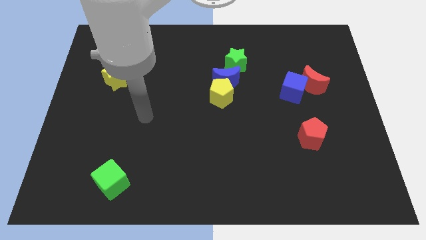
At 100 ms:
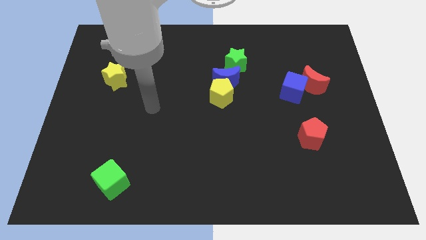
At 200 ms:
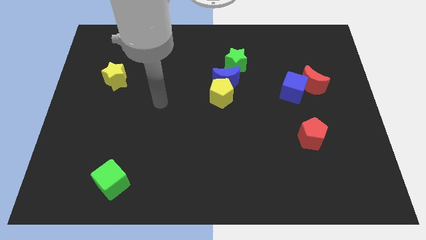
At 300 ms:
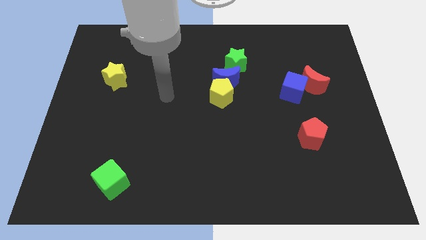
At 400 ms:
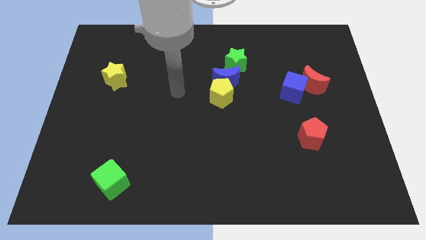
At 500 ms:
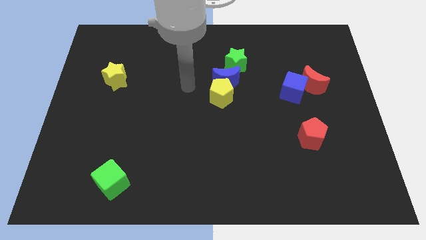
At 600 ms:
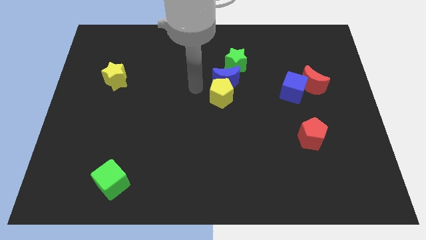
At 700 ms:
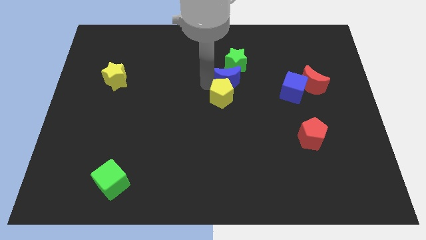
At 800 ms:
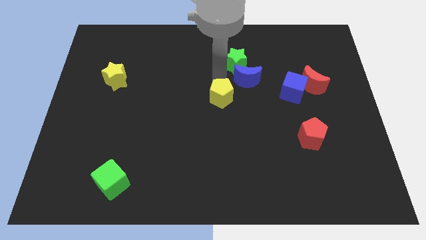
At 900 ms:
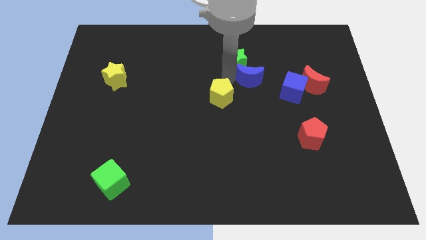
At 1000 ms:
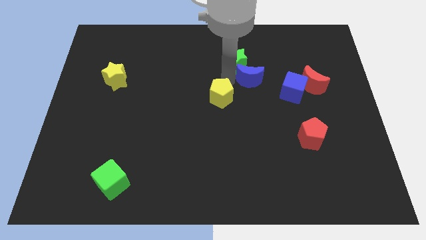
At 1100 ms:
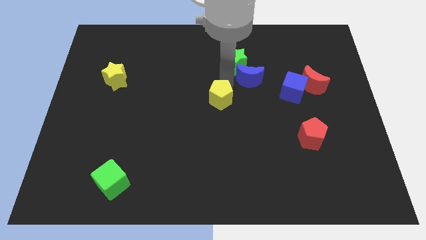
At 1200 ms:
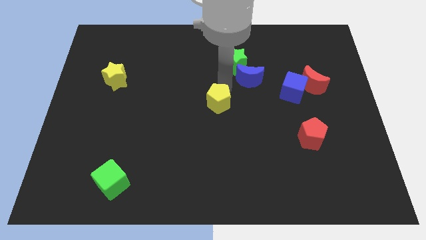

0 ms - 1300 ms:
move the yellow pentagon away from the blue moon

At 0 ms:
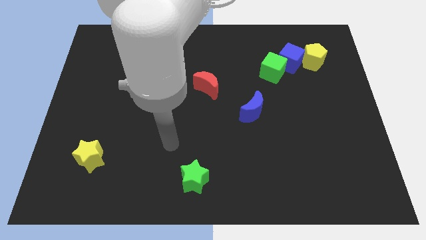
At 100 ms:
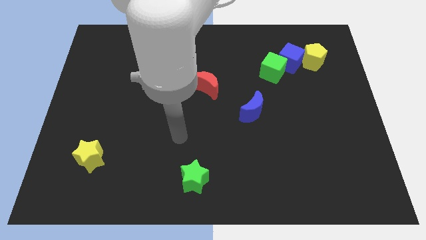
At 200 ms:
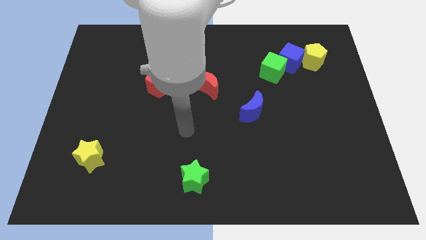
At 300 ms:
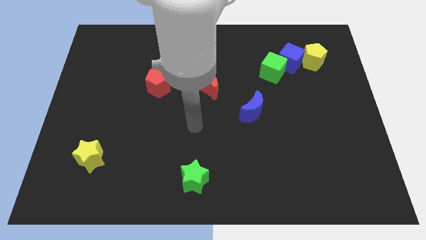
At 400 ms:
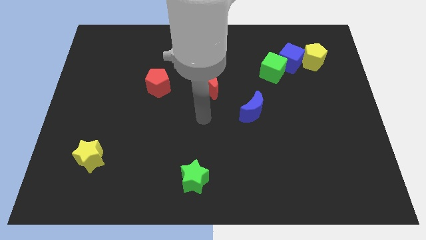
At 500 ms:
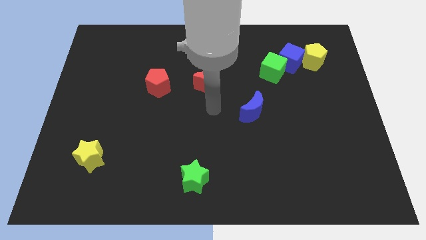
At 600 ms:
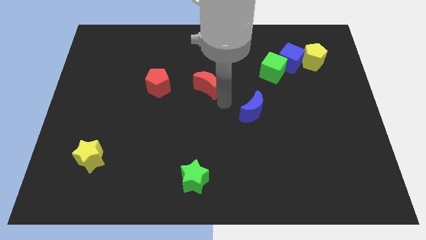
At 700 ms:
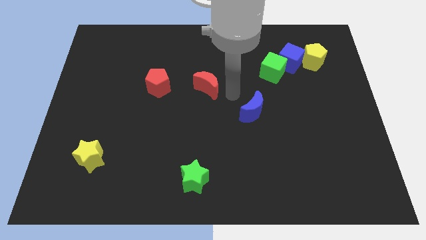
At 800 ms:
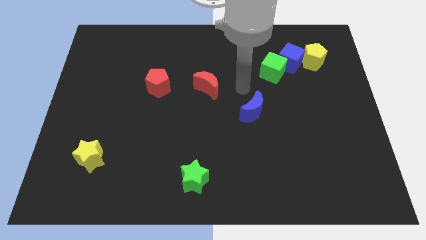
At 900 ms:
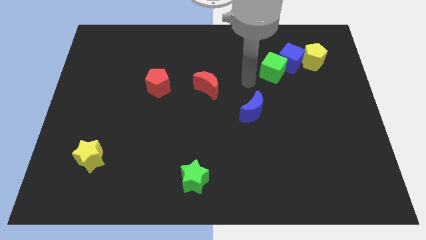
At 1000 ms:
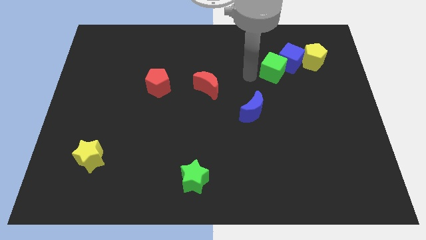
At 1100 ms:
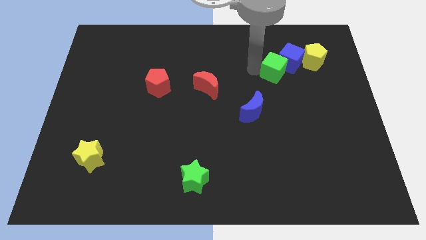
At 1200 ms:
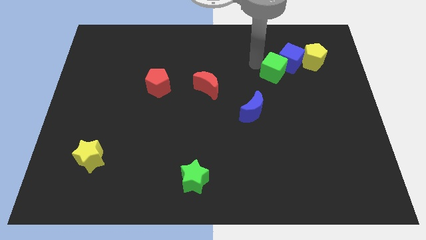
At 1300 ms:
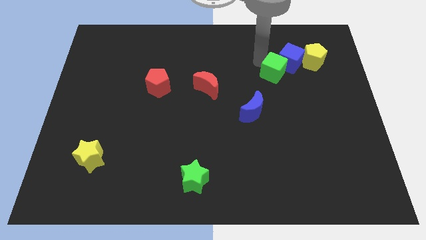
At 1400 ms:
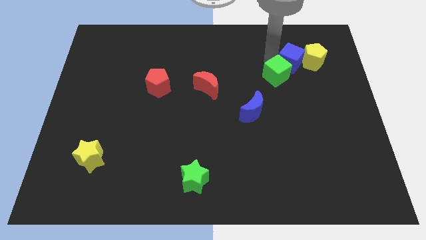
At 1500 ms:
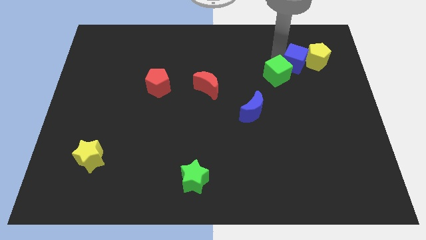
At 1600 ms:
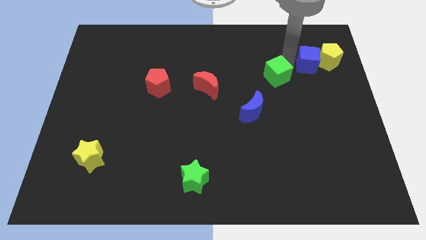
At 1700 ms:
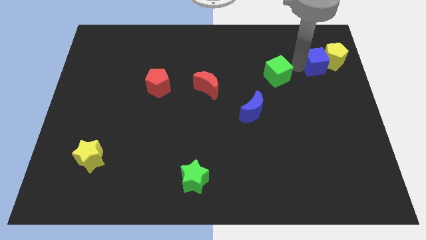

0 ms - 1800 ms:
separate the green cube from the blue cube

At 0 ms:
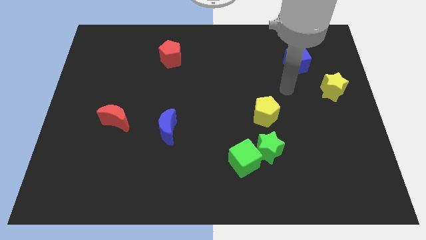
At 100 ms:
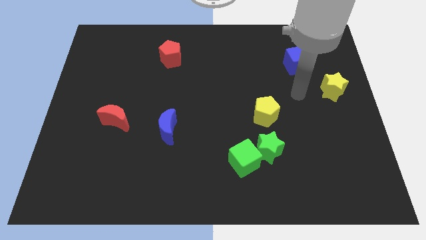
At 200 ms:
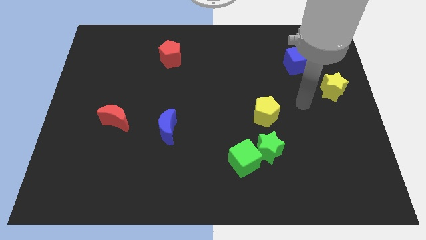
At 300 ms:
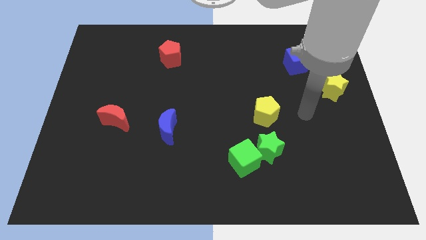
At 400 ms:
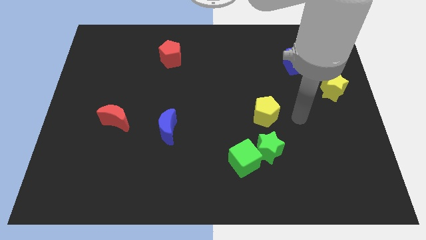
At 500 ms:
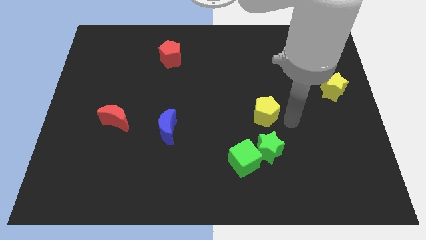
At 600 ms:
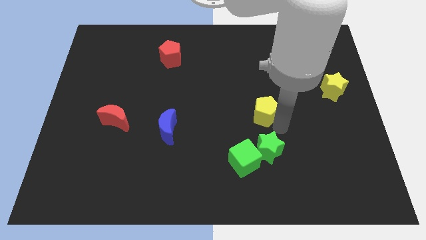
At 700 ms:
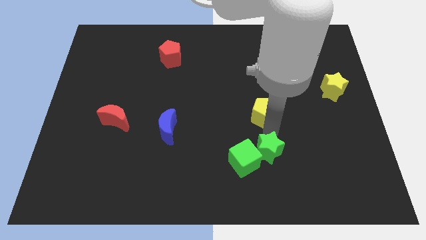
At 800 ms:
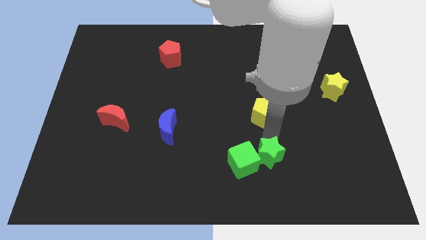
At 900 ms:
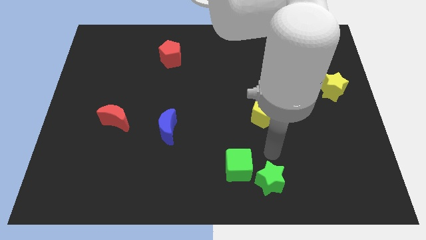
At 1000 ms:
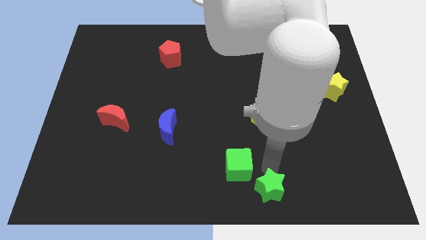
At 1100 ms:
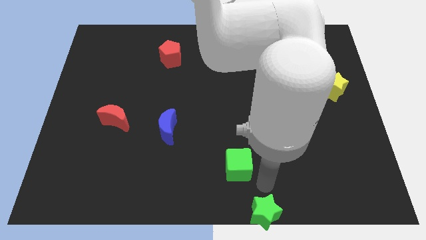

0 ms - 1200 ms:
move the green cube away from the green star

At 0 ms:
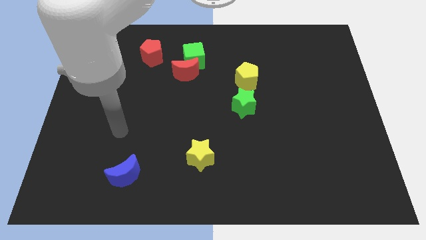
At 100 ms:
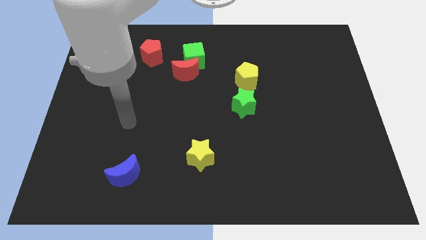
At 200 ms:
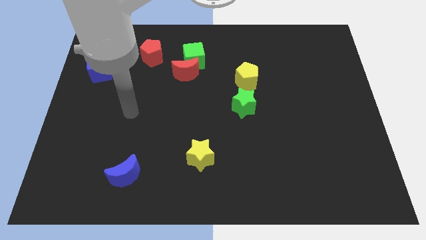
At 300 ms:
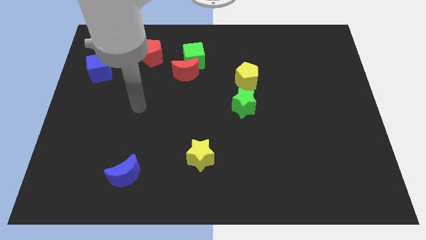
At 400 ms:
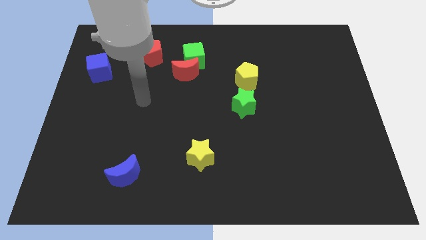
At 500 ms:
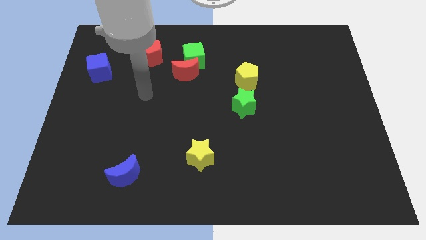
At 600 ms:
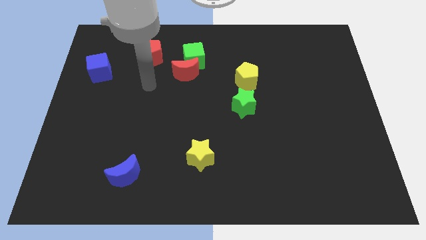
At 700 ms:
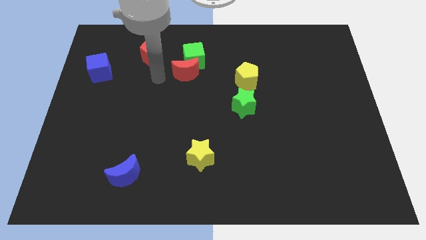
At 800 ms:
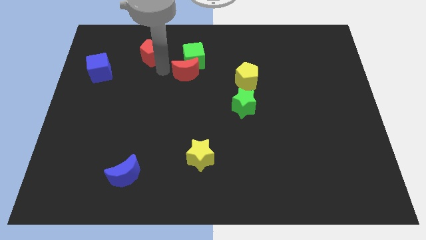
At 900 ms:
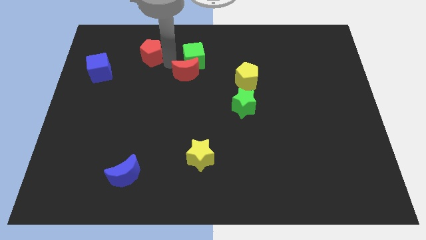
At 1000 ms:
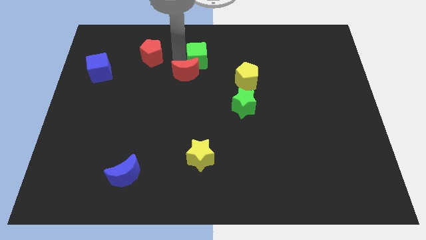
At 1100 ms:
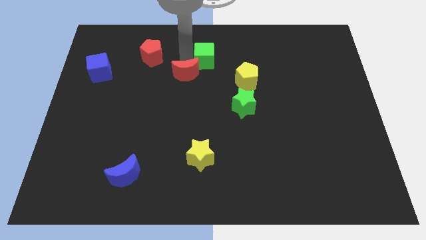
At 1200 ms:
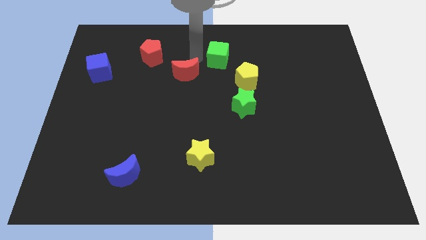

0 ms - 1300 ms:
separate the red moon from the green cube

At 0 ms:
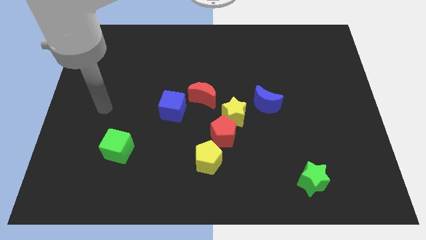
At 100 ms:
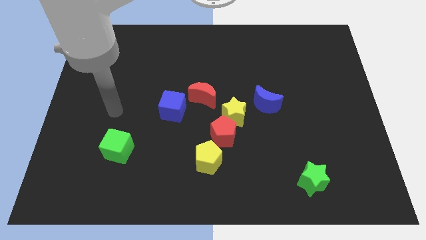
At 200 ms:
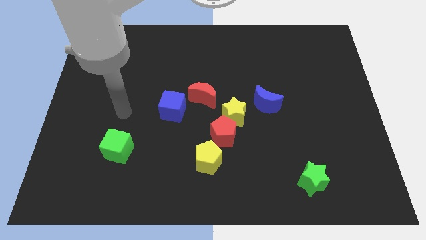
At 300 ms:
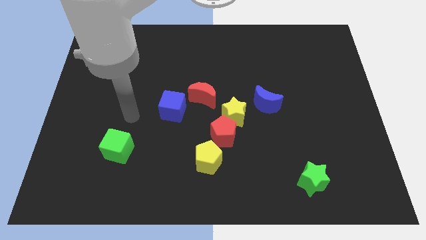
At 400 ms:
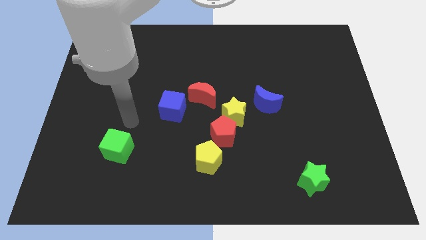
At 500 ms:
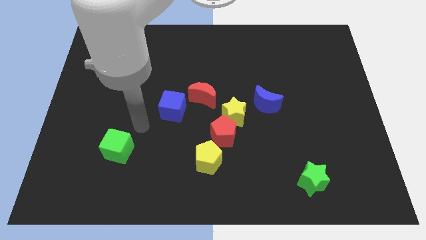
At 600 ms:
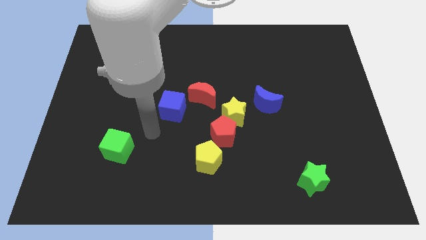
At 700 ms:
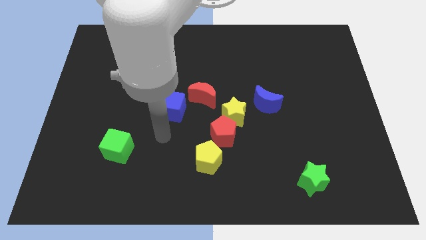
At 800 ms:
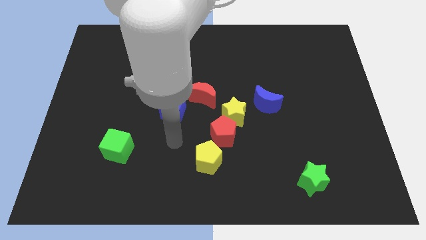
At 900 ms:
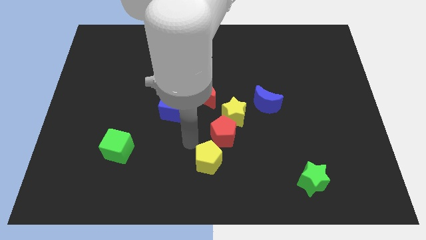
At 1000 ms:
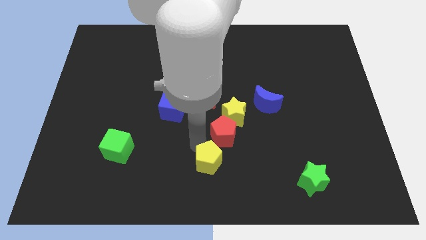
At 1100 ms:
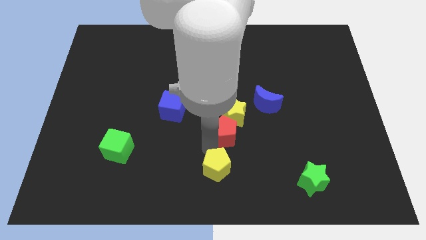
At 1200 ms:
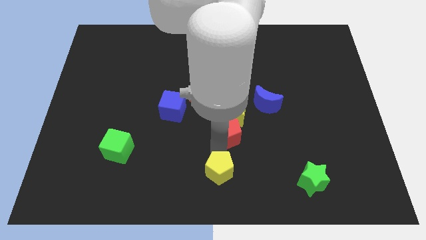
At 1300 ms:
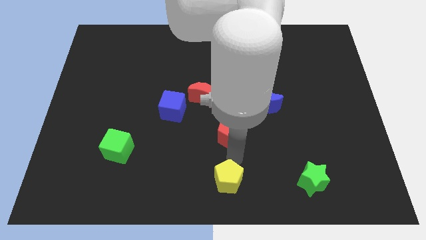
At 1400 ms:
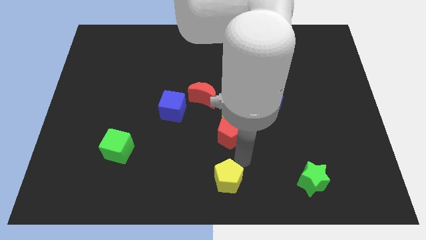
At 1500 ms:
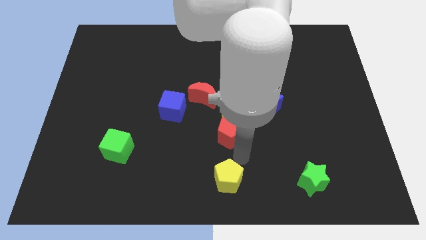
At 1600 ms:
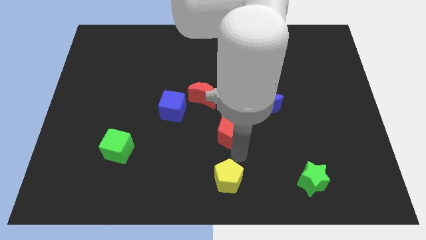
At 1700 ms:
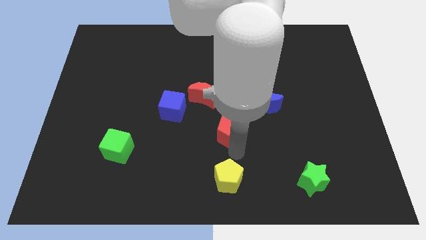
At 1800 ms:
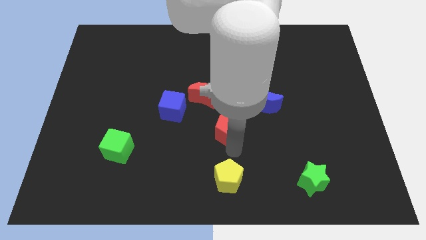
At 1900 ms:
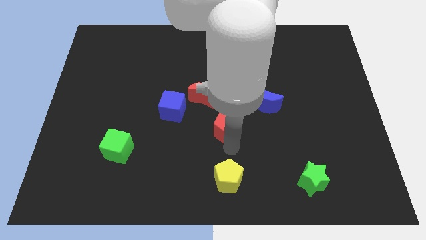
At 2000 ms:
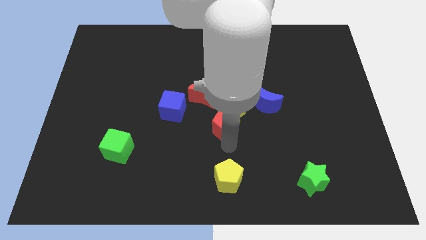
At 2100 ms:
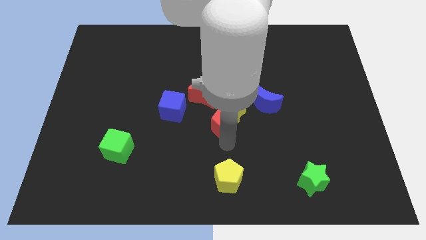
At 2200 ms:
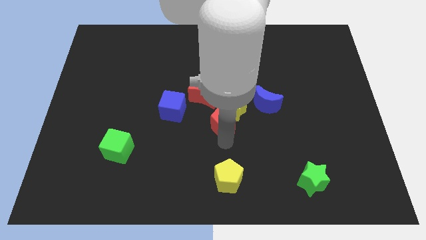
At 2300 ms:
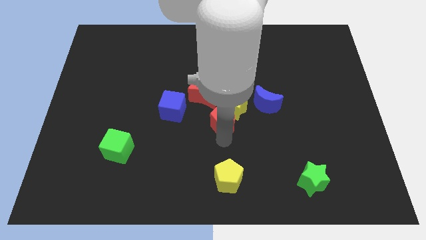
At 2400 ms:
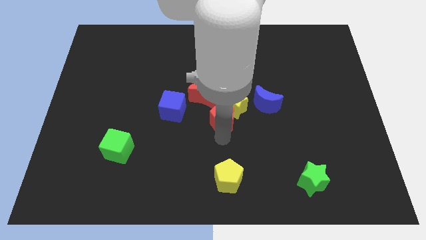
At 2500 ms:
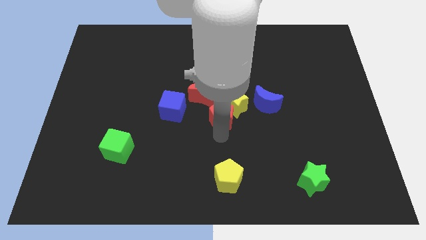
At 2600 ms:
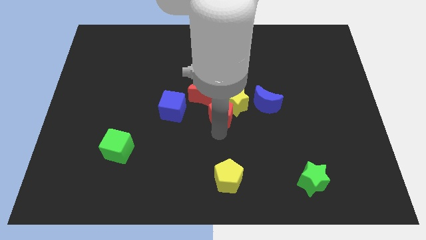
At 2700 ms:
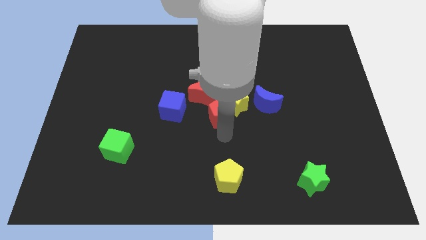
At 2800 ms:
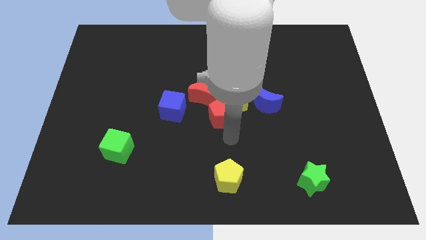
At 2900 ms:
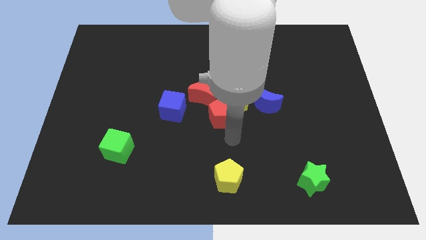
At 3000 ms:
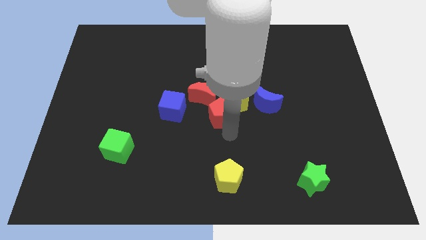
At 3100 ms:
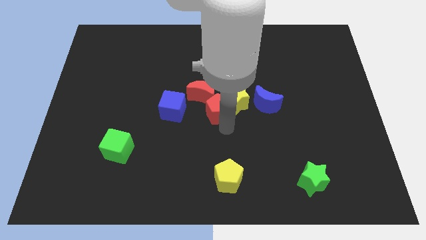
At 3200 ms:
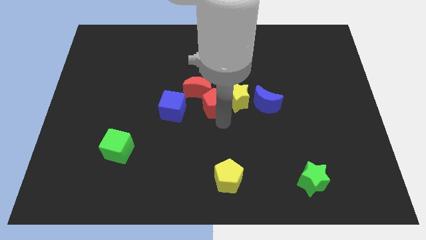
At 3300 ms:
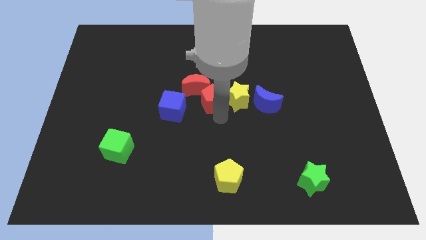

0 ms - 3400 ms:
separate the red pentagon from the yellow star and yellow pentagon

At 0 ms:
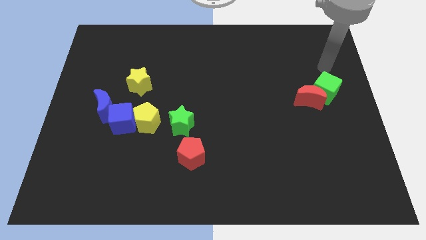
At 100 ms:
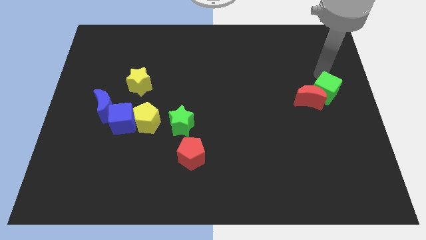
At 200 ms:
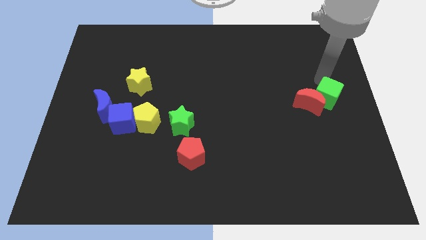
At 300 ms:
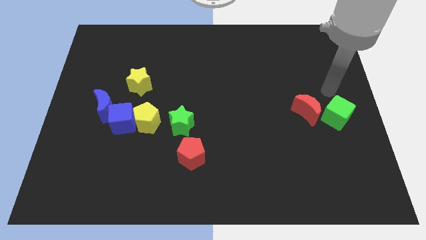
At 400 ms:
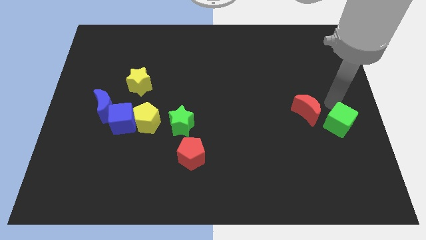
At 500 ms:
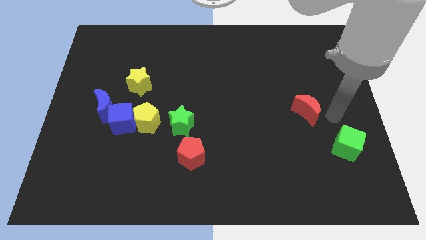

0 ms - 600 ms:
move the red moon away from the green cube
